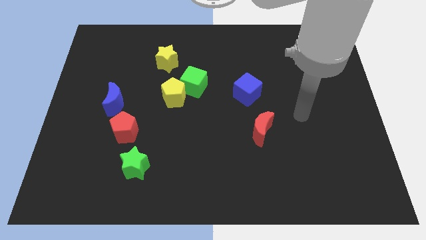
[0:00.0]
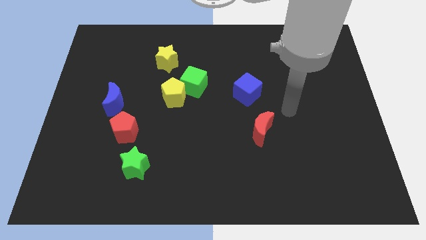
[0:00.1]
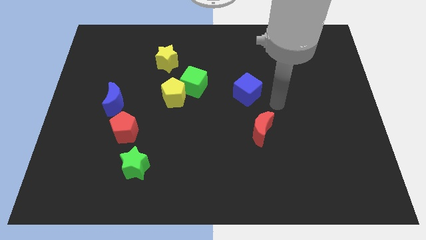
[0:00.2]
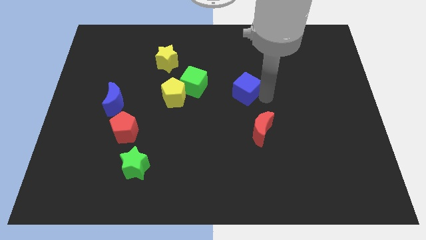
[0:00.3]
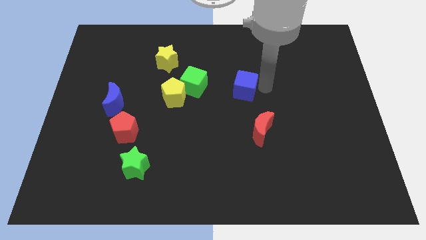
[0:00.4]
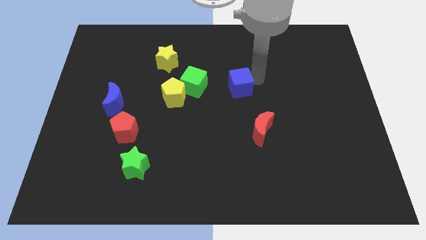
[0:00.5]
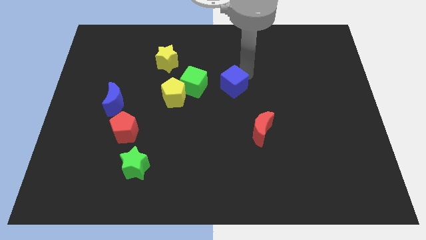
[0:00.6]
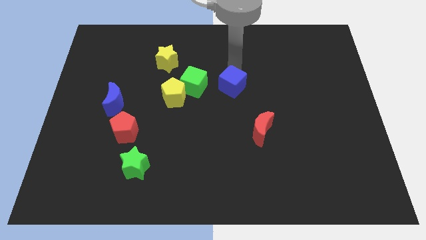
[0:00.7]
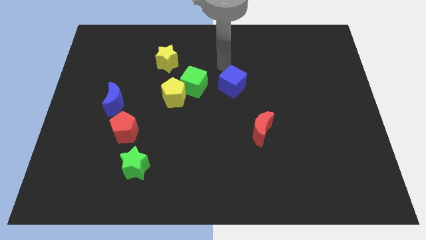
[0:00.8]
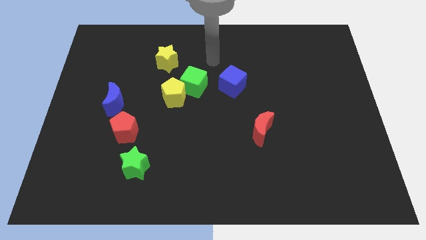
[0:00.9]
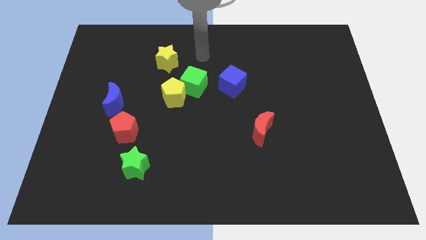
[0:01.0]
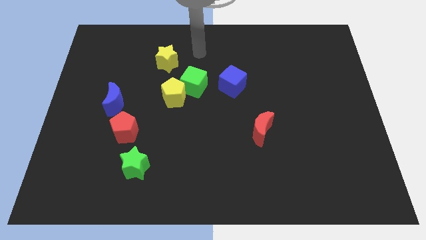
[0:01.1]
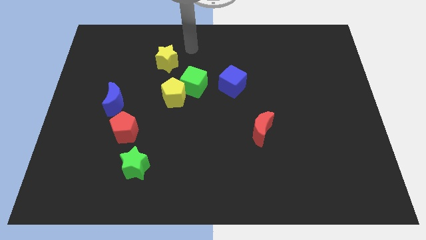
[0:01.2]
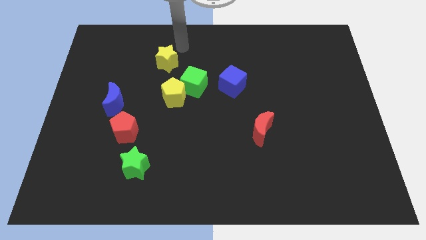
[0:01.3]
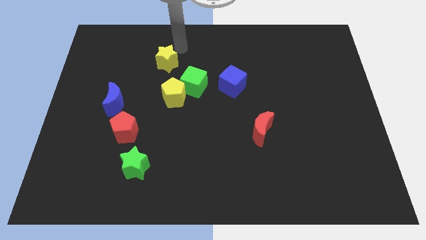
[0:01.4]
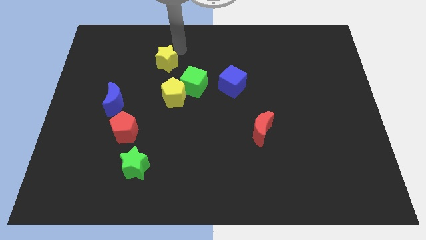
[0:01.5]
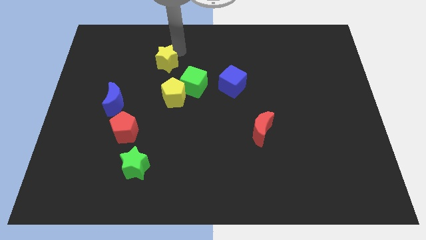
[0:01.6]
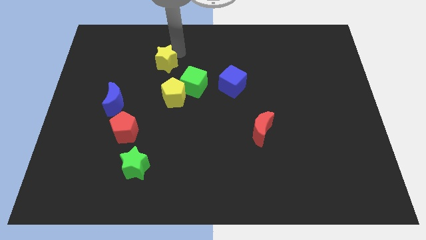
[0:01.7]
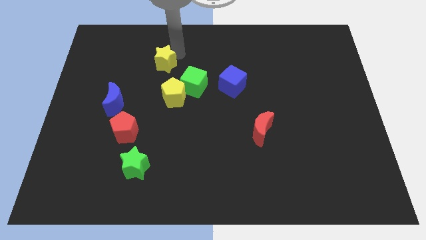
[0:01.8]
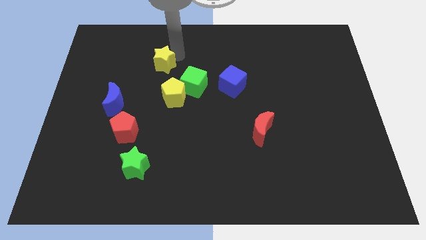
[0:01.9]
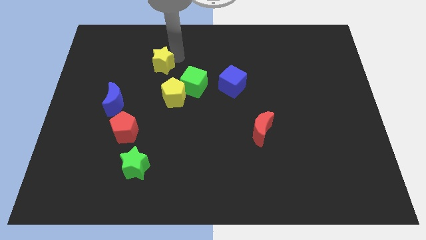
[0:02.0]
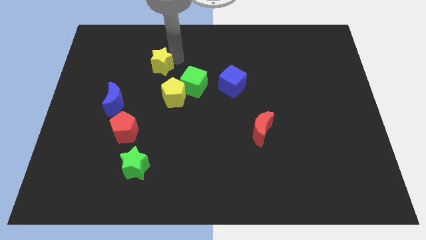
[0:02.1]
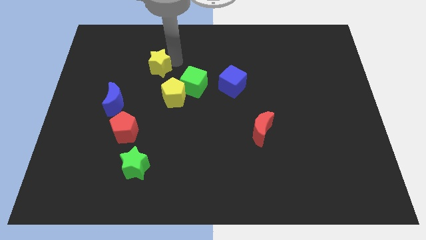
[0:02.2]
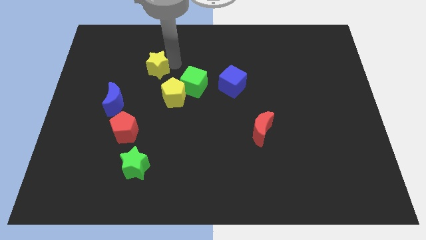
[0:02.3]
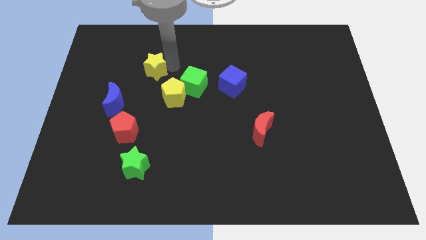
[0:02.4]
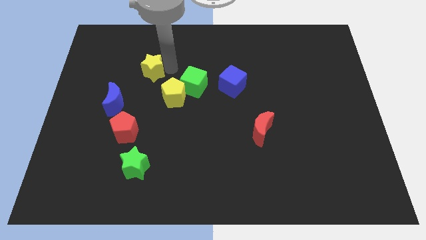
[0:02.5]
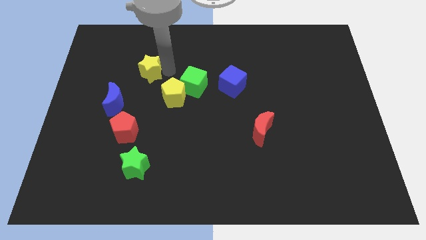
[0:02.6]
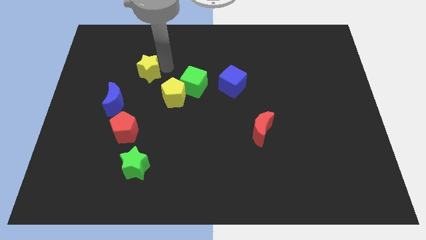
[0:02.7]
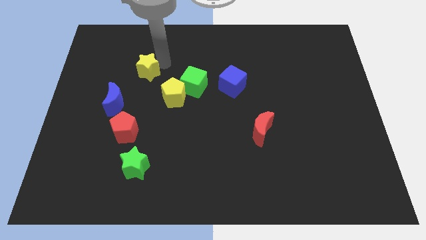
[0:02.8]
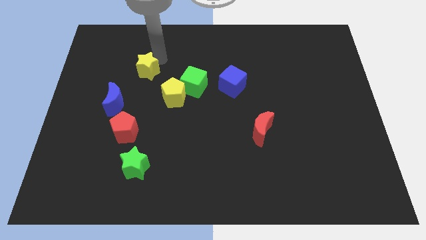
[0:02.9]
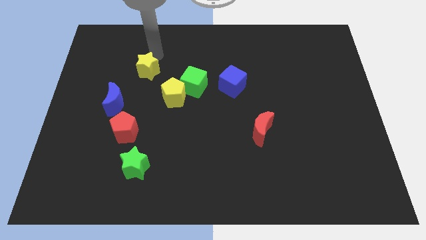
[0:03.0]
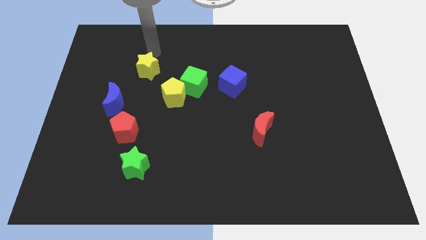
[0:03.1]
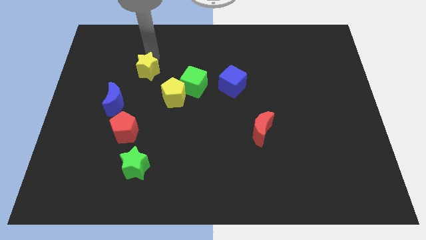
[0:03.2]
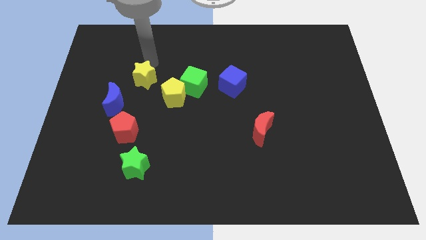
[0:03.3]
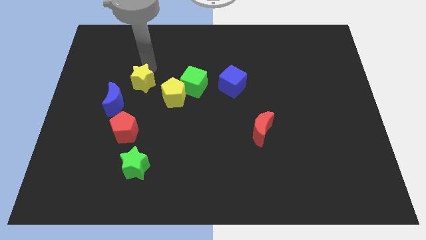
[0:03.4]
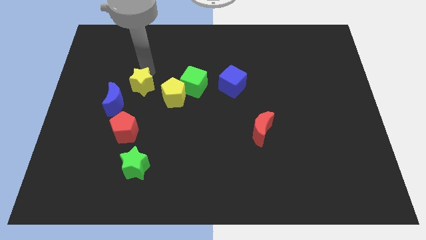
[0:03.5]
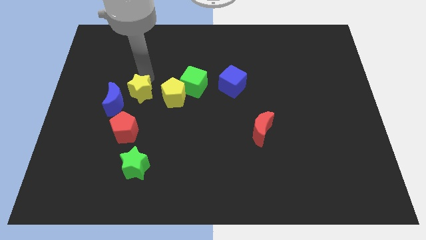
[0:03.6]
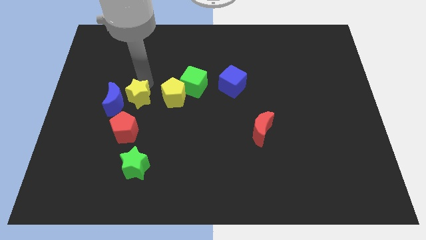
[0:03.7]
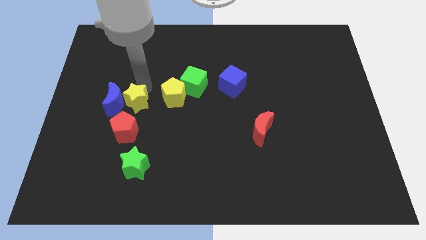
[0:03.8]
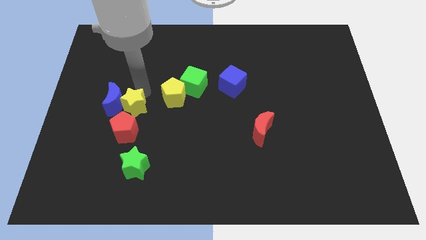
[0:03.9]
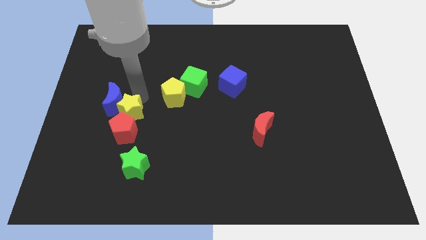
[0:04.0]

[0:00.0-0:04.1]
move the yellow star to the red pentagon

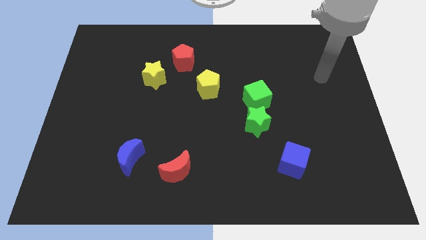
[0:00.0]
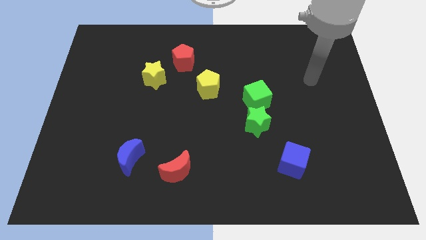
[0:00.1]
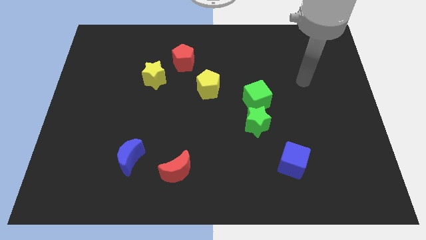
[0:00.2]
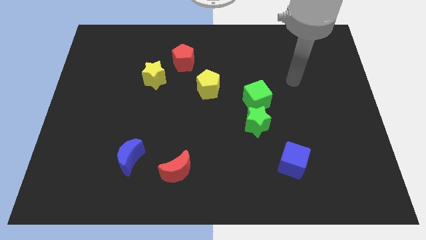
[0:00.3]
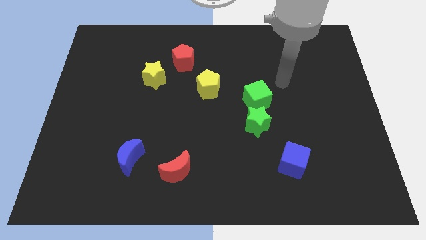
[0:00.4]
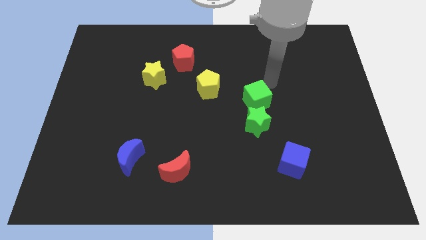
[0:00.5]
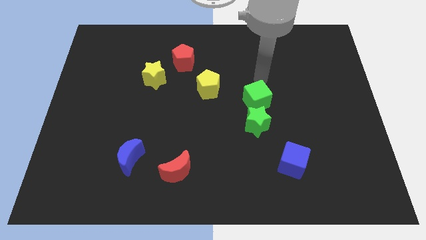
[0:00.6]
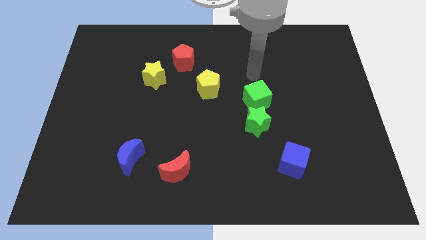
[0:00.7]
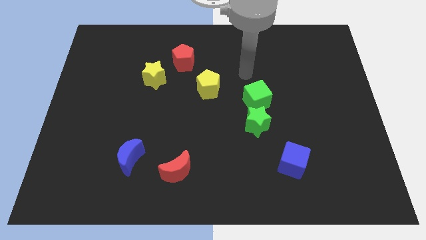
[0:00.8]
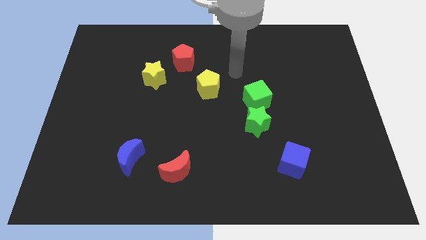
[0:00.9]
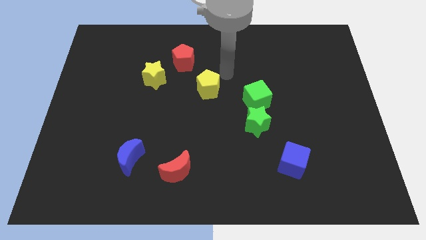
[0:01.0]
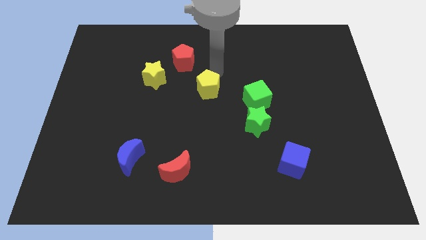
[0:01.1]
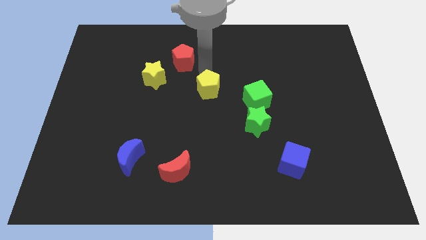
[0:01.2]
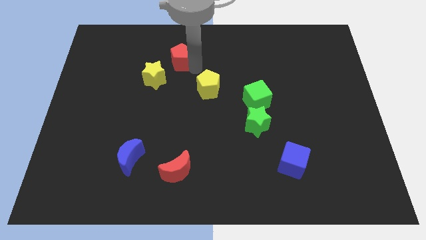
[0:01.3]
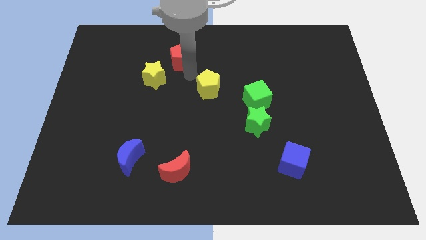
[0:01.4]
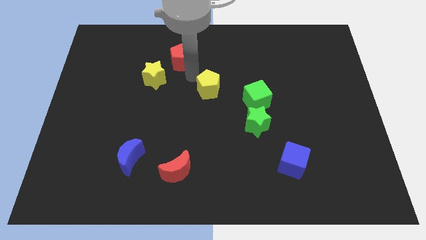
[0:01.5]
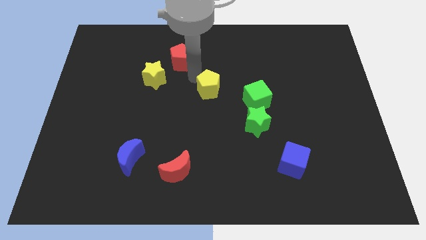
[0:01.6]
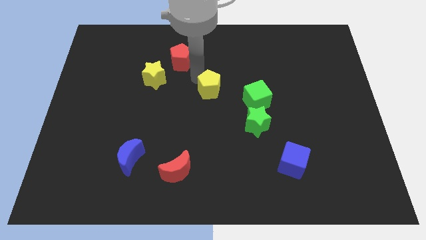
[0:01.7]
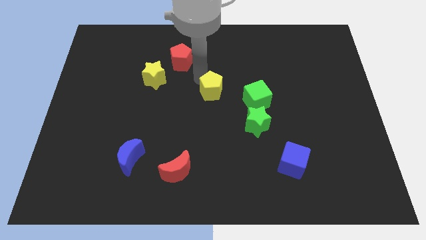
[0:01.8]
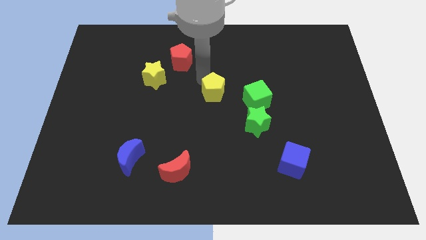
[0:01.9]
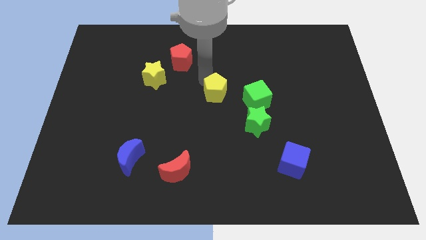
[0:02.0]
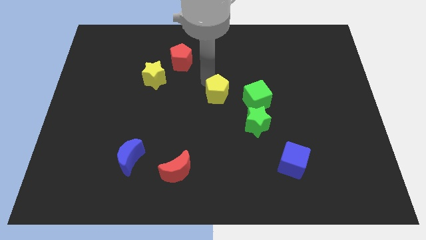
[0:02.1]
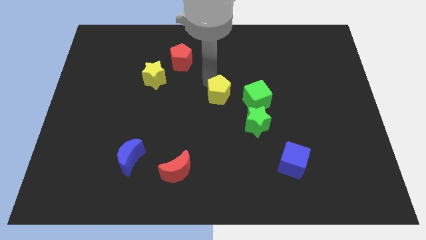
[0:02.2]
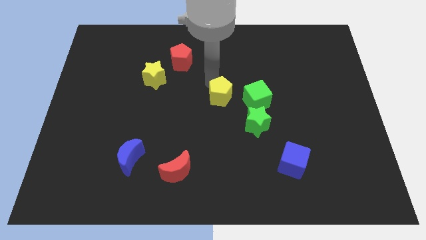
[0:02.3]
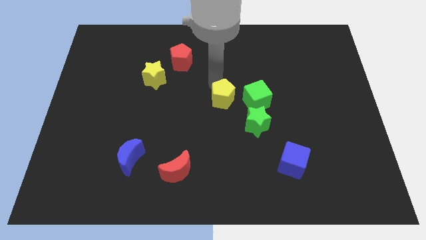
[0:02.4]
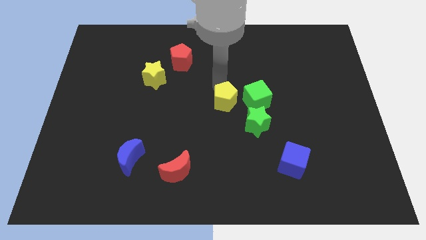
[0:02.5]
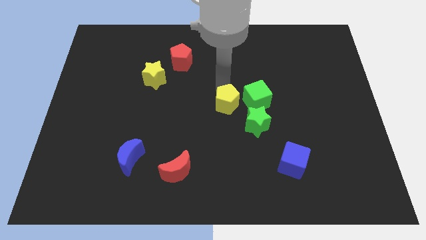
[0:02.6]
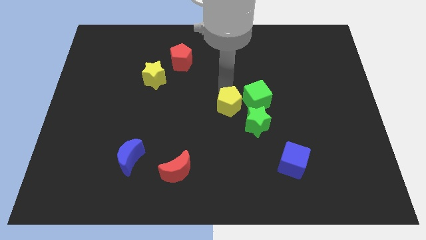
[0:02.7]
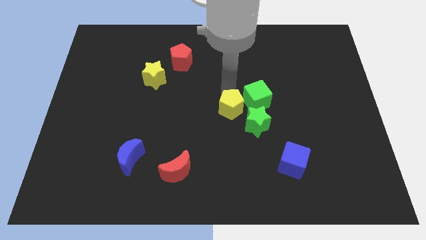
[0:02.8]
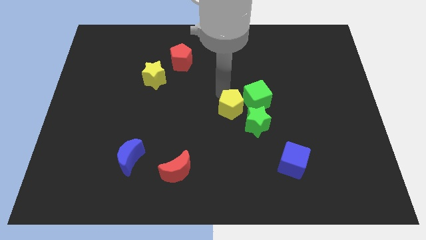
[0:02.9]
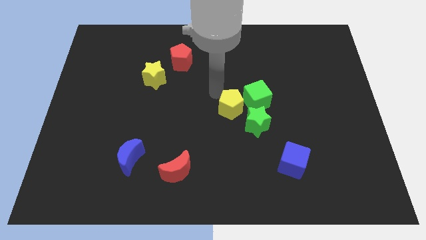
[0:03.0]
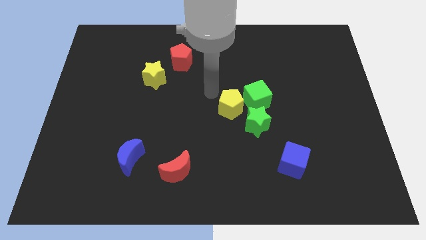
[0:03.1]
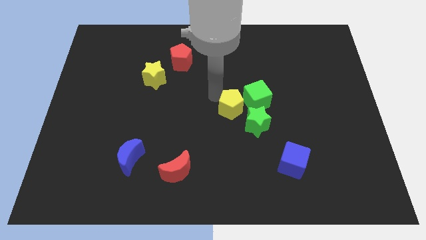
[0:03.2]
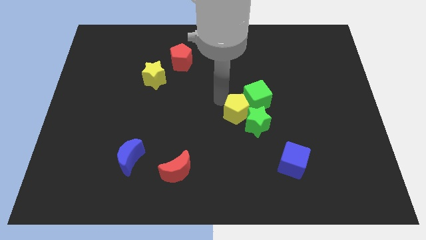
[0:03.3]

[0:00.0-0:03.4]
slide the yellow pentagon towards the green star

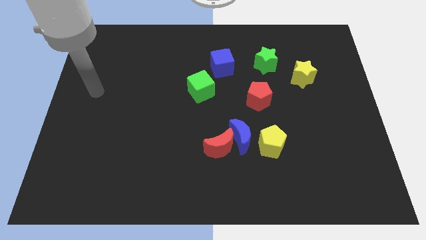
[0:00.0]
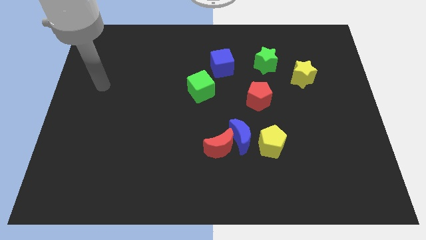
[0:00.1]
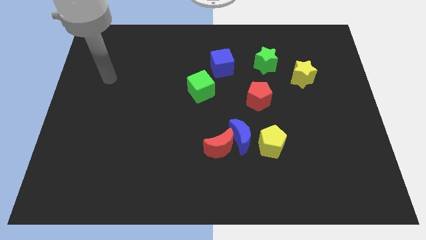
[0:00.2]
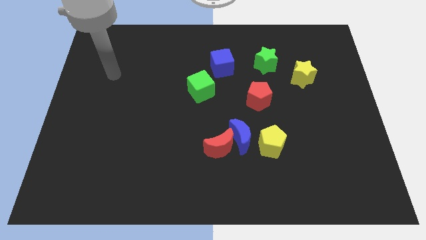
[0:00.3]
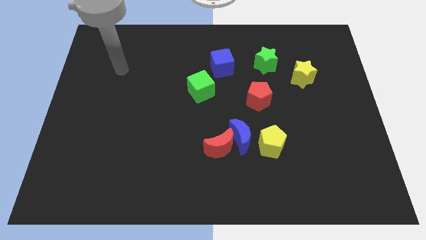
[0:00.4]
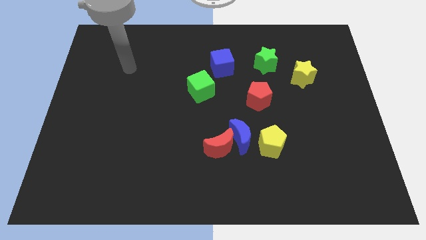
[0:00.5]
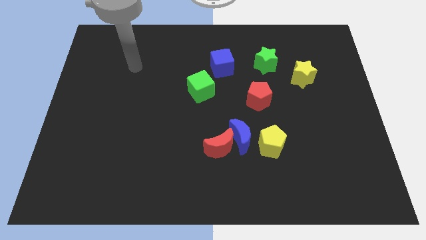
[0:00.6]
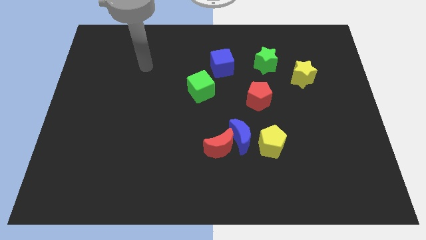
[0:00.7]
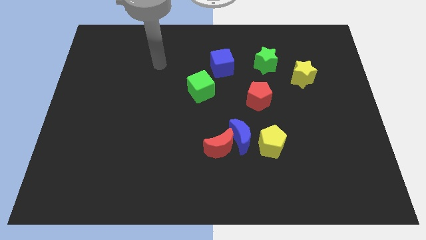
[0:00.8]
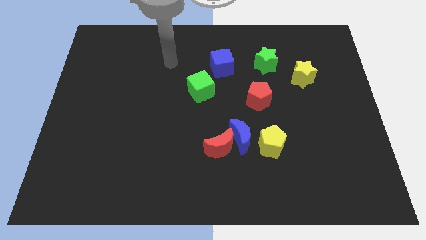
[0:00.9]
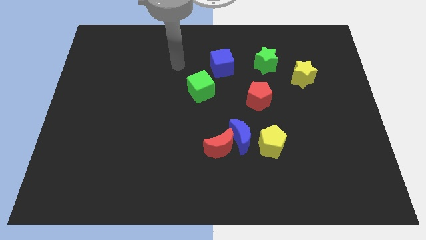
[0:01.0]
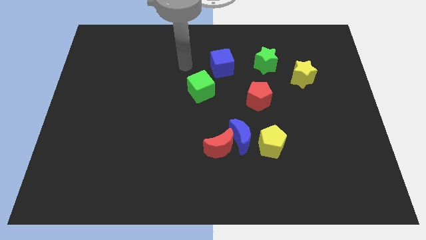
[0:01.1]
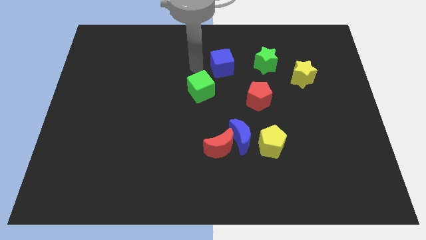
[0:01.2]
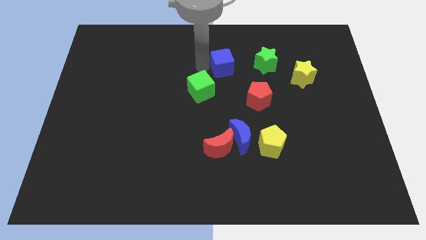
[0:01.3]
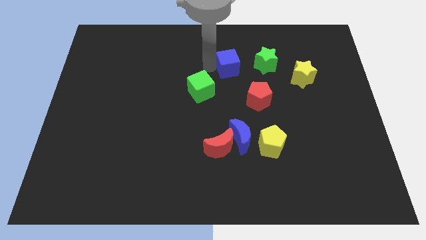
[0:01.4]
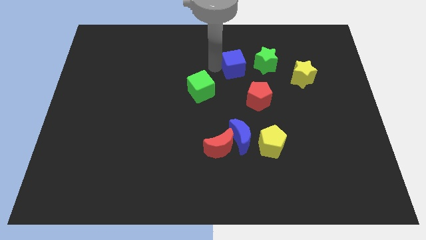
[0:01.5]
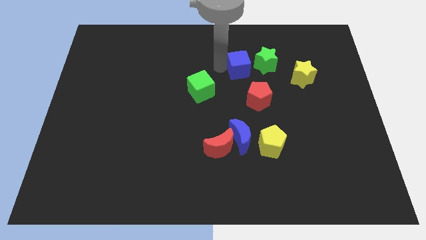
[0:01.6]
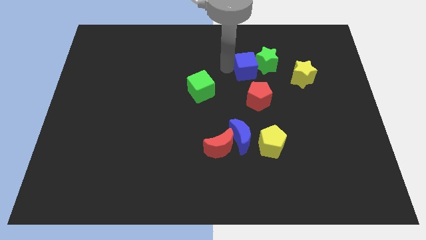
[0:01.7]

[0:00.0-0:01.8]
move the blue cube next to the green star
